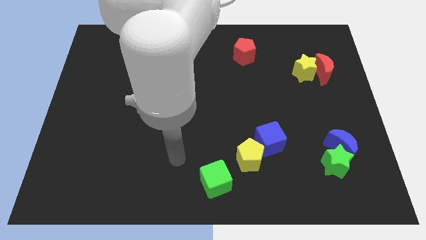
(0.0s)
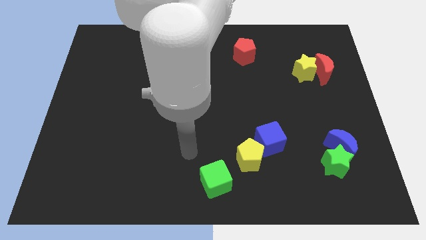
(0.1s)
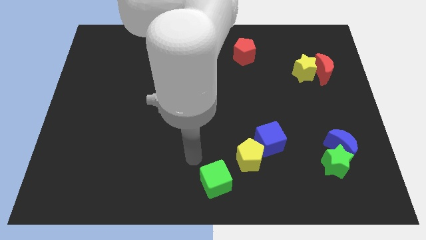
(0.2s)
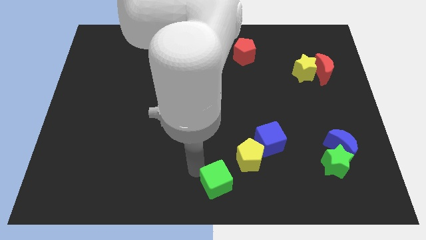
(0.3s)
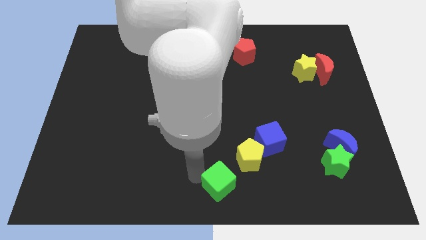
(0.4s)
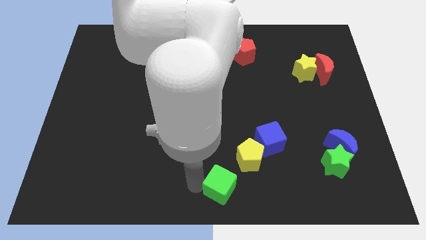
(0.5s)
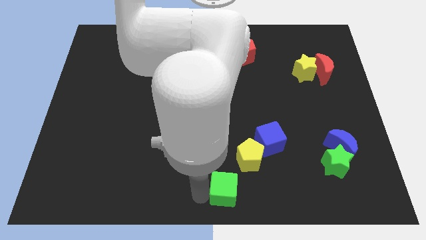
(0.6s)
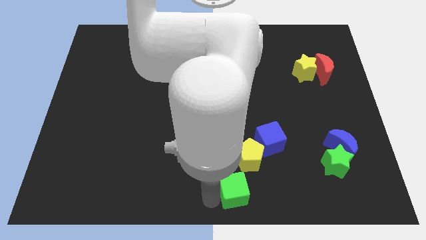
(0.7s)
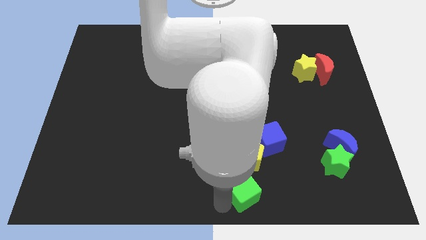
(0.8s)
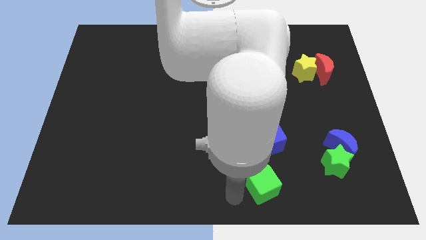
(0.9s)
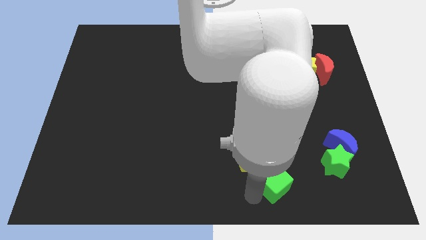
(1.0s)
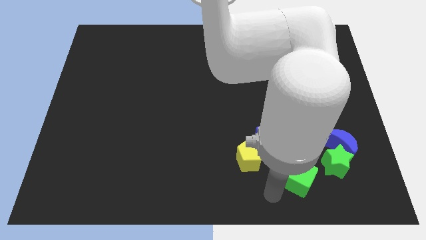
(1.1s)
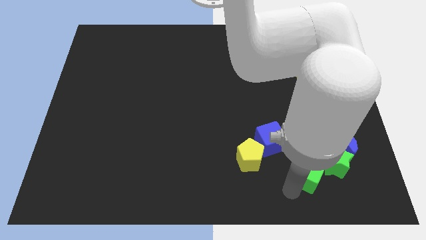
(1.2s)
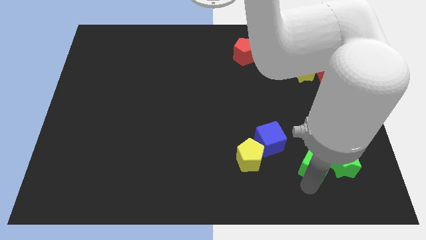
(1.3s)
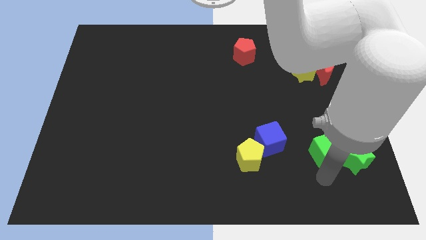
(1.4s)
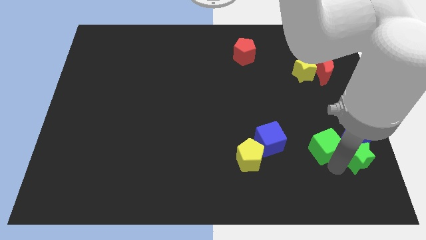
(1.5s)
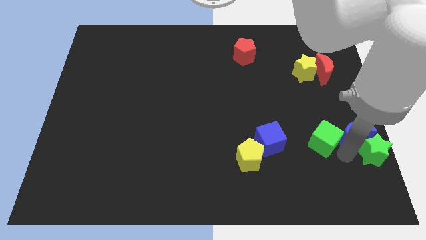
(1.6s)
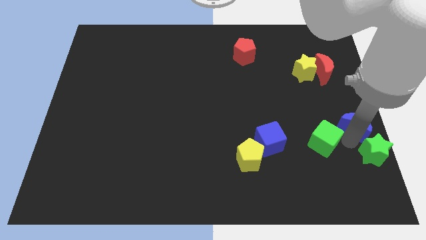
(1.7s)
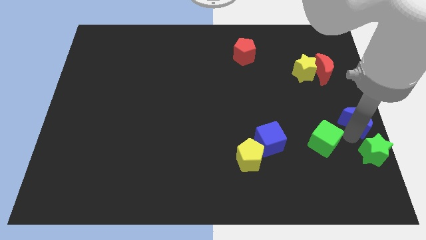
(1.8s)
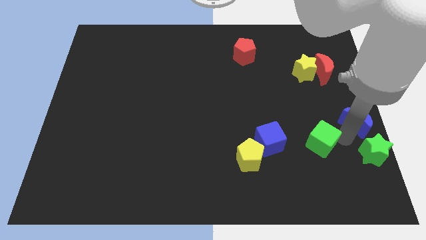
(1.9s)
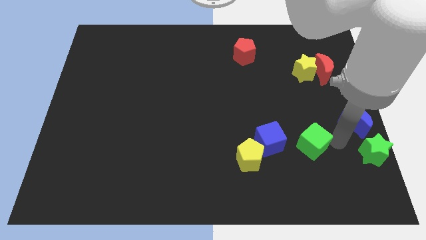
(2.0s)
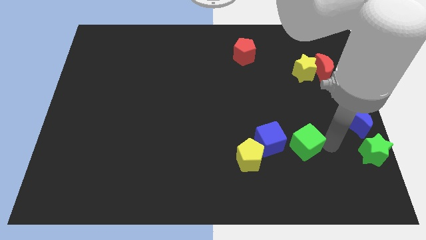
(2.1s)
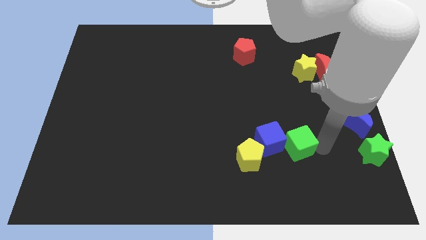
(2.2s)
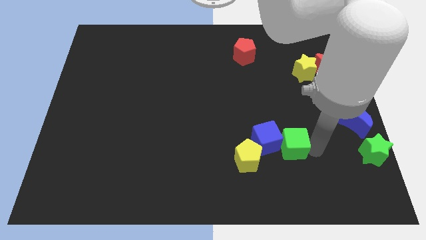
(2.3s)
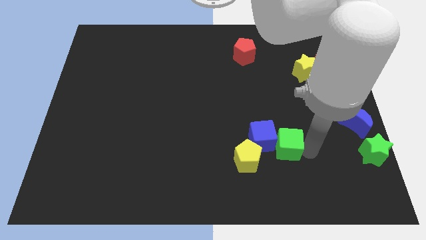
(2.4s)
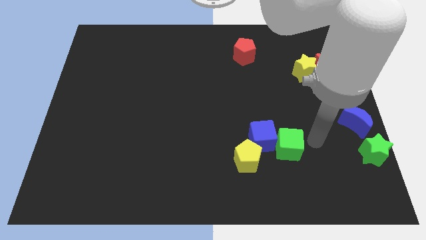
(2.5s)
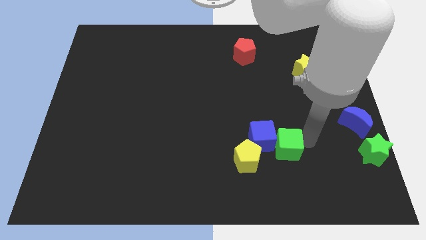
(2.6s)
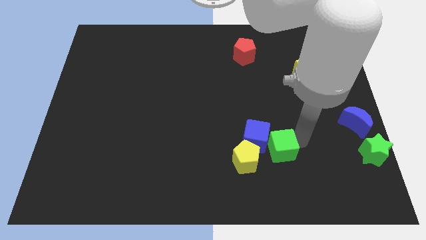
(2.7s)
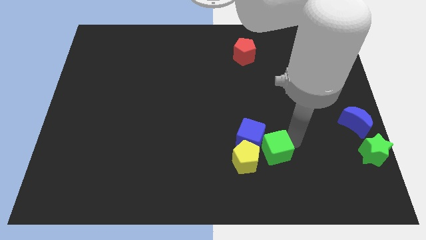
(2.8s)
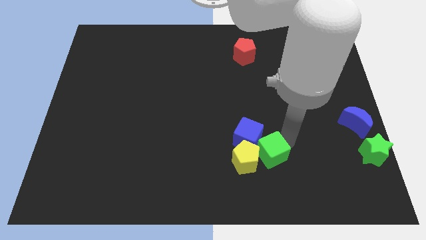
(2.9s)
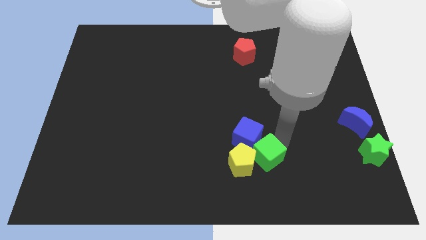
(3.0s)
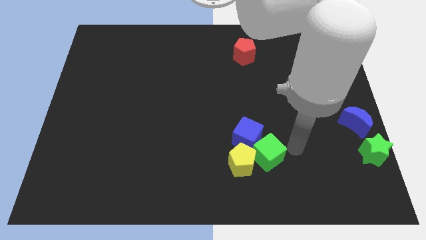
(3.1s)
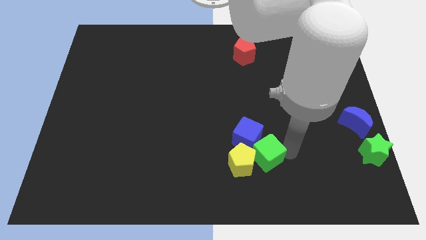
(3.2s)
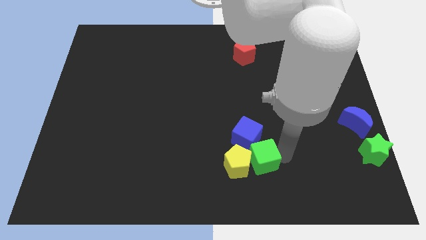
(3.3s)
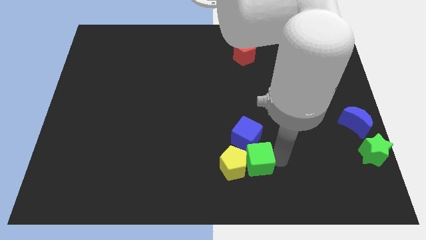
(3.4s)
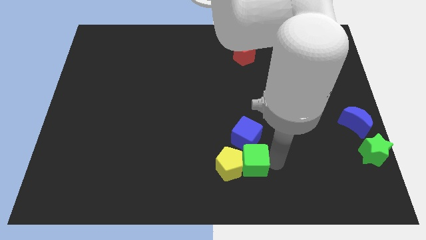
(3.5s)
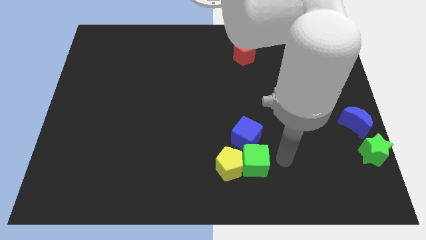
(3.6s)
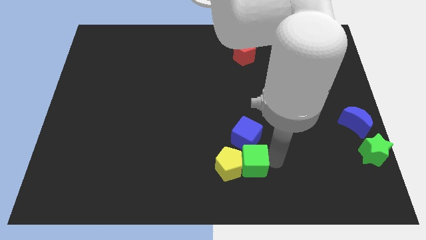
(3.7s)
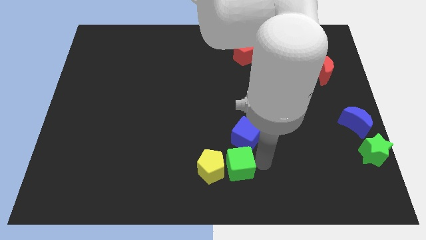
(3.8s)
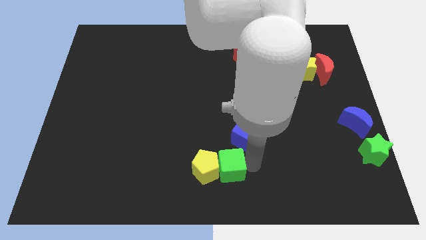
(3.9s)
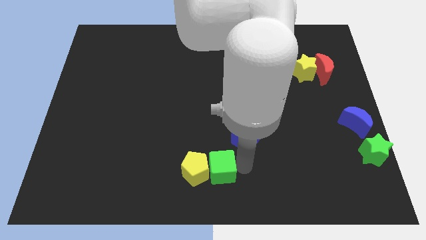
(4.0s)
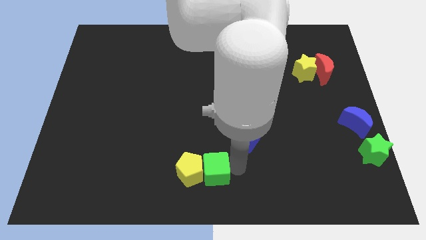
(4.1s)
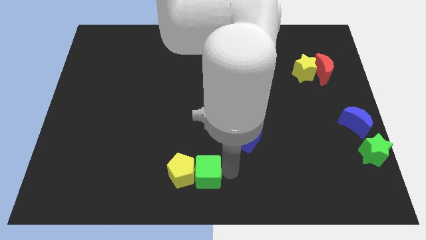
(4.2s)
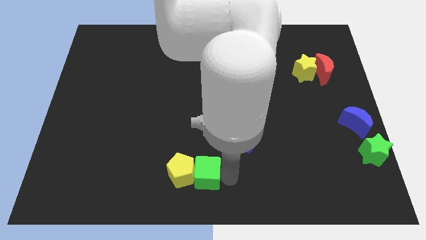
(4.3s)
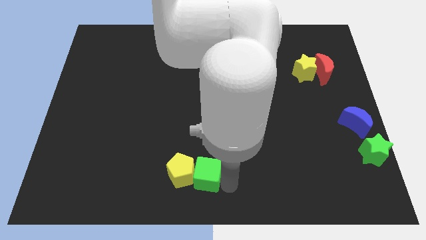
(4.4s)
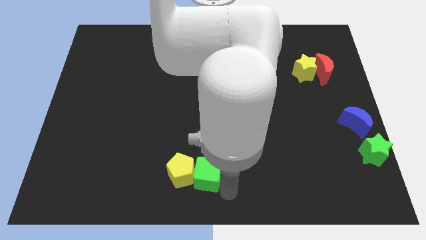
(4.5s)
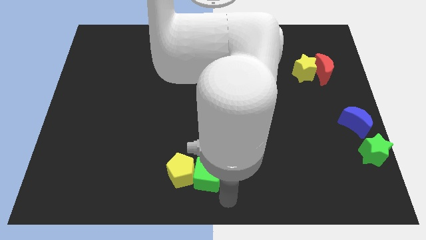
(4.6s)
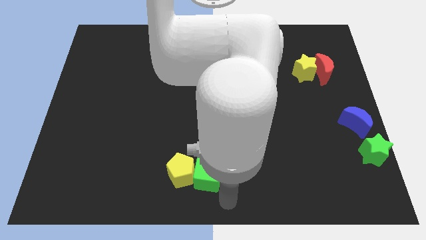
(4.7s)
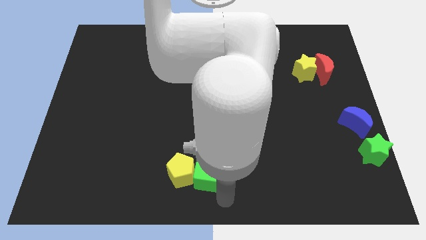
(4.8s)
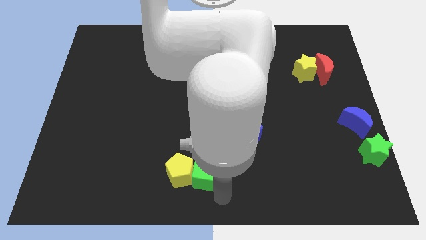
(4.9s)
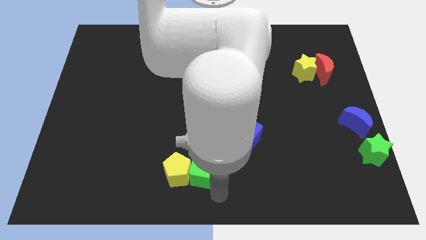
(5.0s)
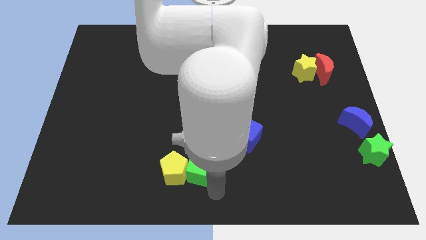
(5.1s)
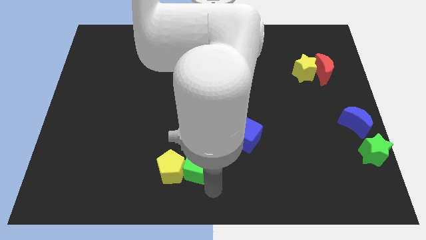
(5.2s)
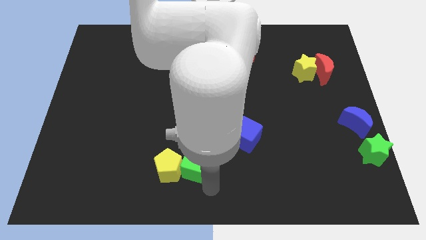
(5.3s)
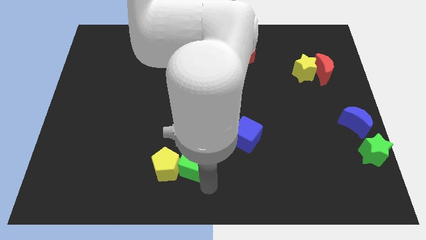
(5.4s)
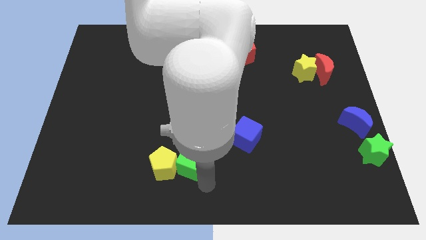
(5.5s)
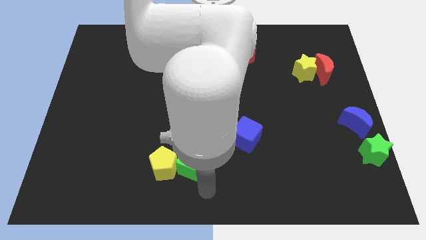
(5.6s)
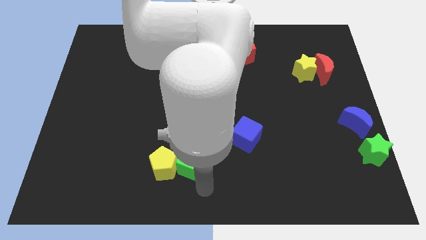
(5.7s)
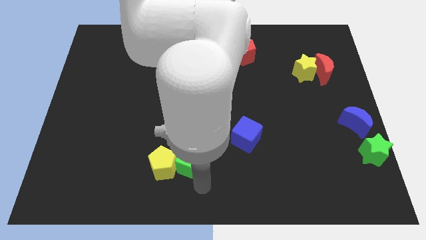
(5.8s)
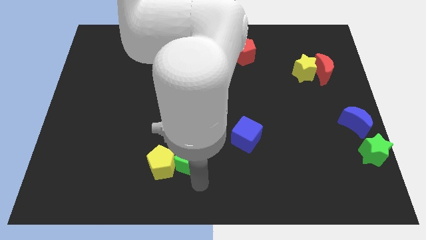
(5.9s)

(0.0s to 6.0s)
slightly push the green cube up and to the left

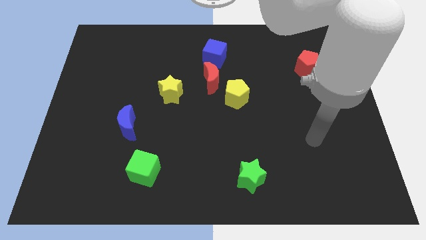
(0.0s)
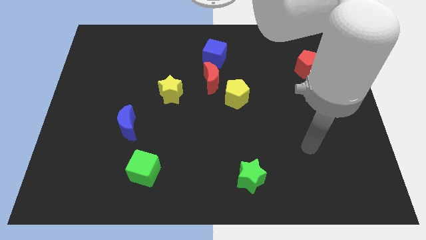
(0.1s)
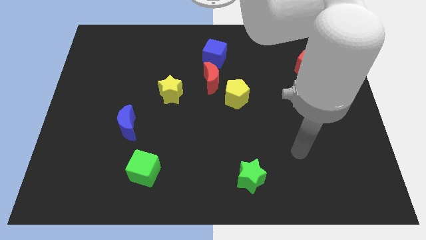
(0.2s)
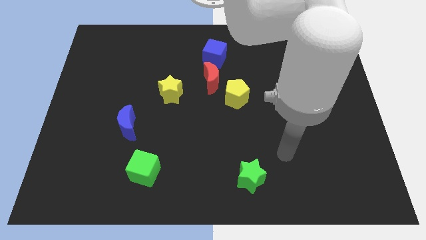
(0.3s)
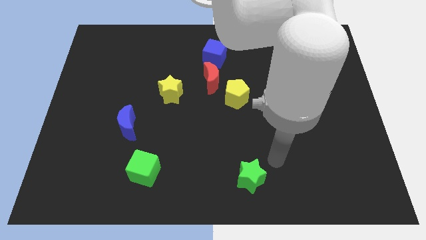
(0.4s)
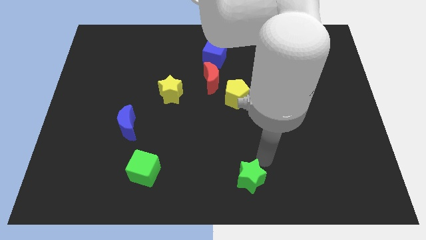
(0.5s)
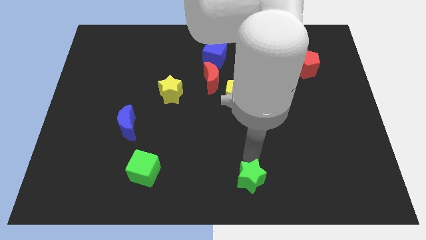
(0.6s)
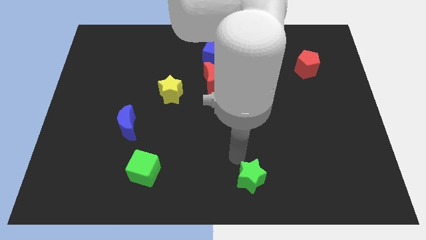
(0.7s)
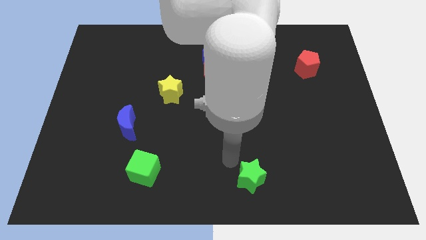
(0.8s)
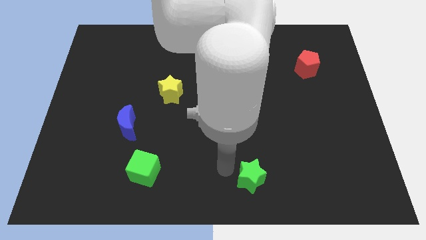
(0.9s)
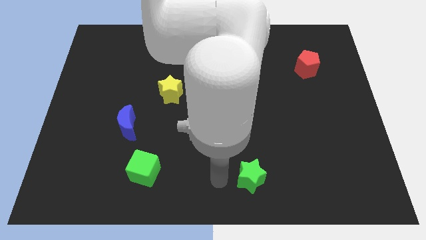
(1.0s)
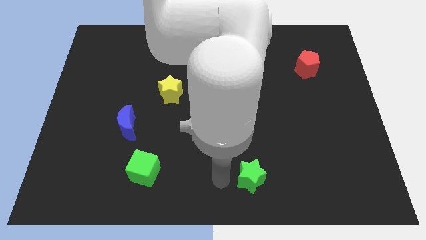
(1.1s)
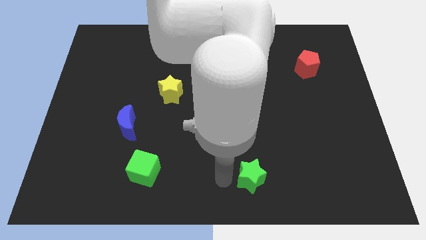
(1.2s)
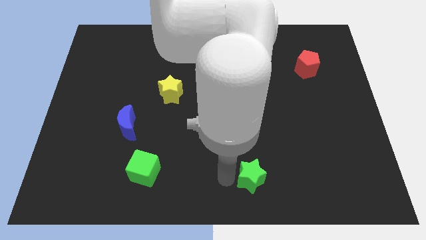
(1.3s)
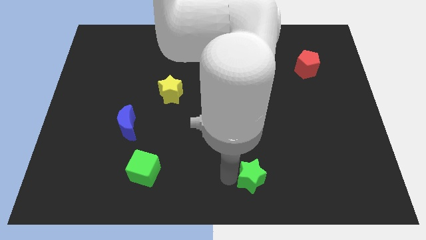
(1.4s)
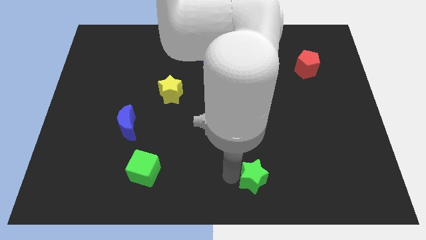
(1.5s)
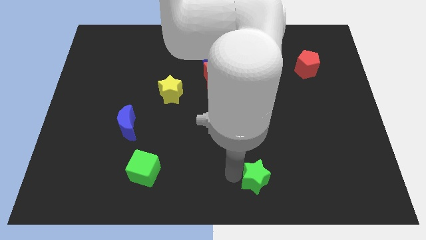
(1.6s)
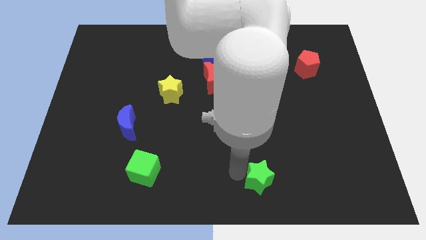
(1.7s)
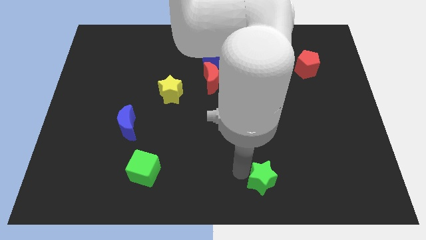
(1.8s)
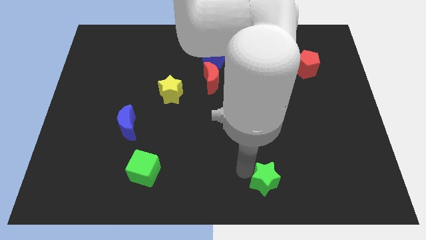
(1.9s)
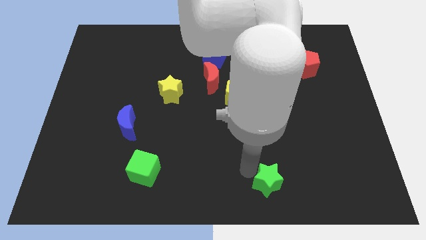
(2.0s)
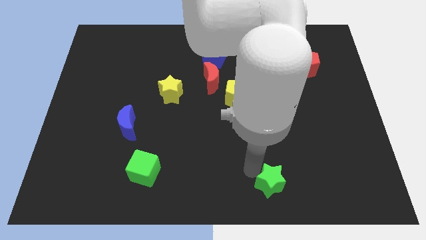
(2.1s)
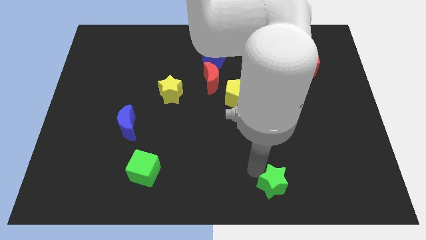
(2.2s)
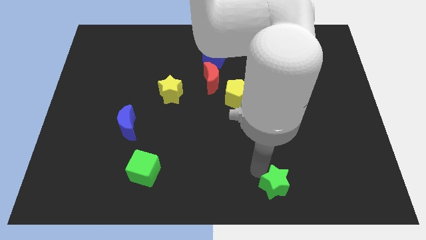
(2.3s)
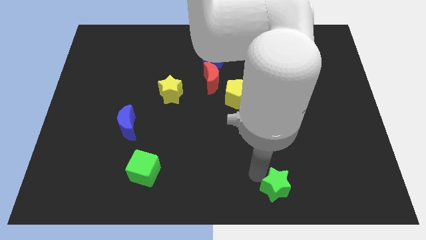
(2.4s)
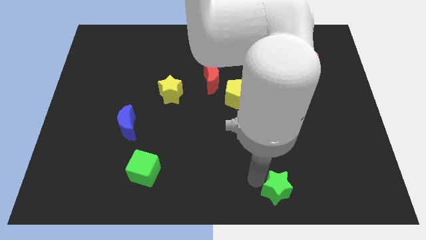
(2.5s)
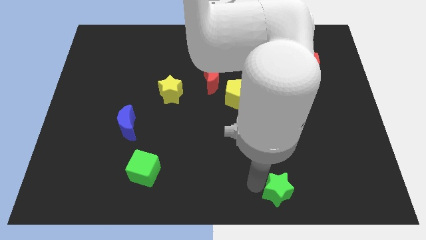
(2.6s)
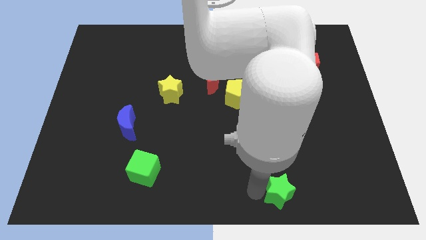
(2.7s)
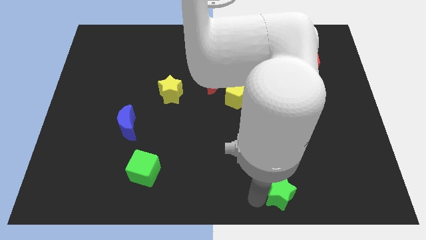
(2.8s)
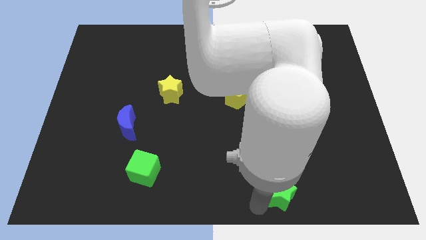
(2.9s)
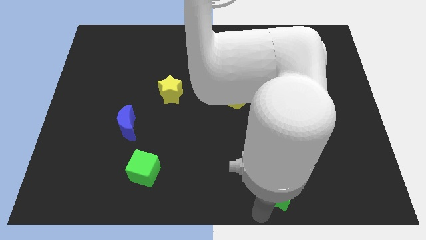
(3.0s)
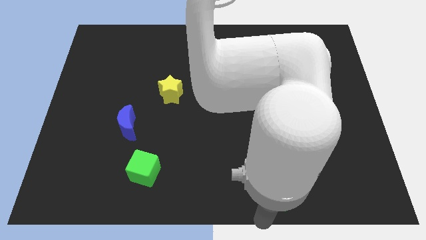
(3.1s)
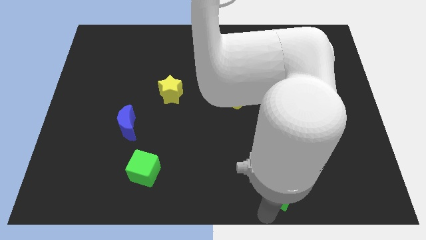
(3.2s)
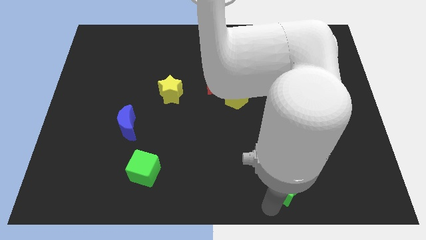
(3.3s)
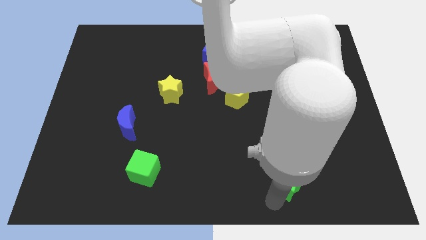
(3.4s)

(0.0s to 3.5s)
push the green star to the right a little bit
